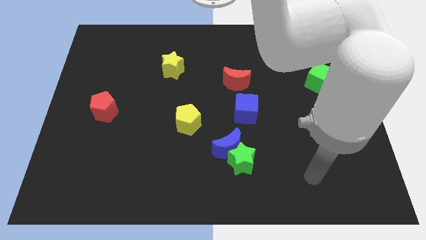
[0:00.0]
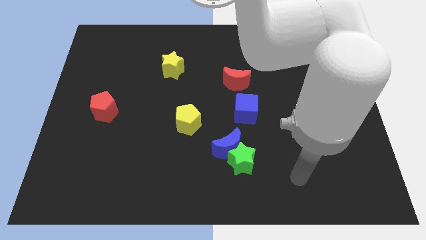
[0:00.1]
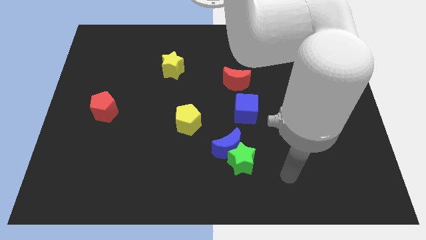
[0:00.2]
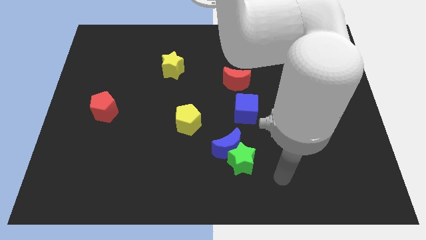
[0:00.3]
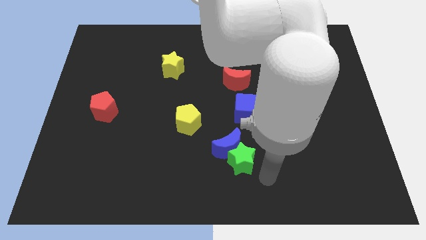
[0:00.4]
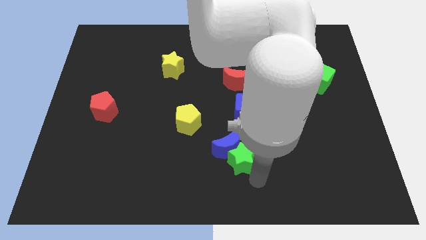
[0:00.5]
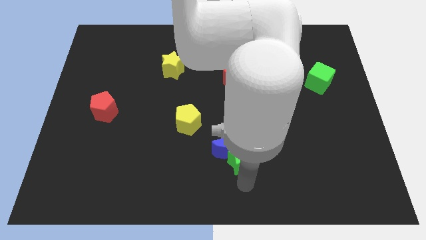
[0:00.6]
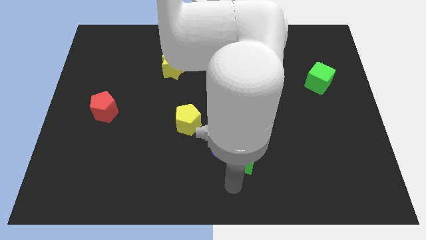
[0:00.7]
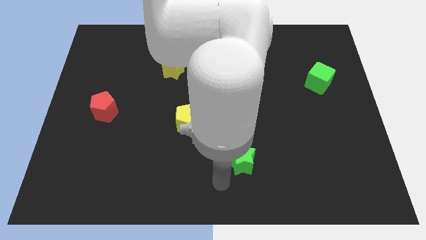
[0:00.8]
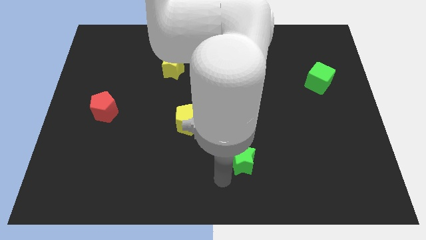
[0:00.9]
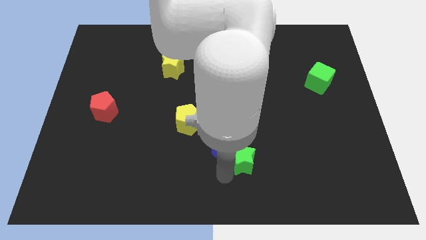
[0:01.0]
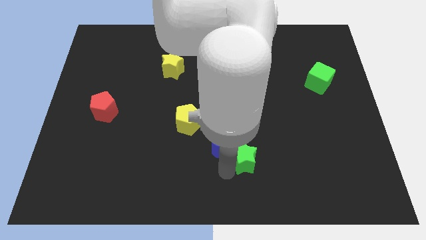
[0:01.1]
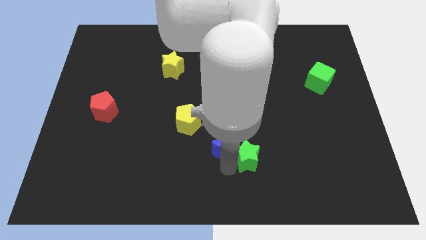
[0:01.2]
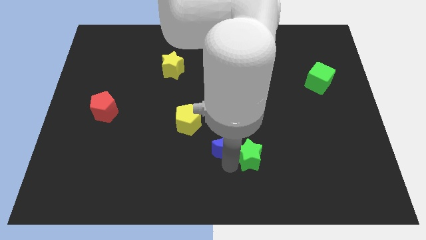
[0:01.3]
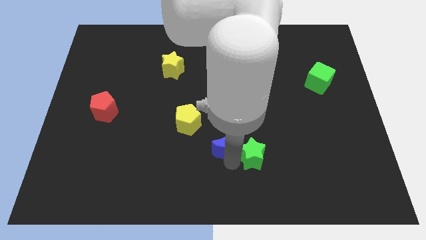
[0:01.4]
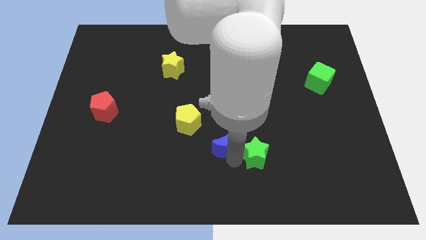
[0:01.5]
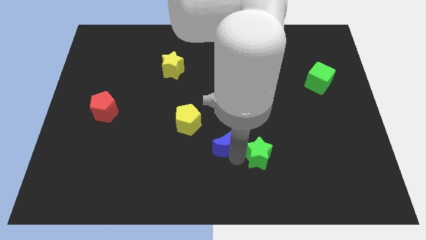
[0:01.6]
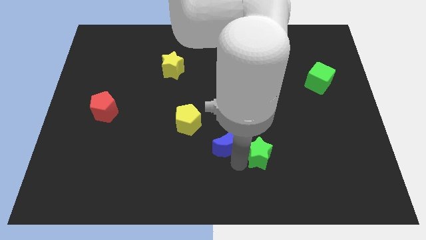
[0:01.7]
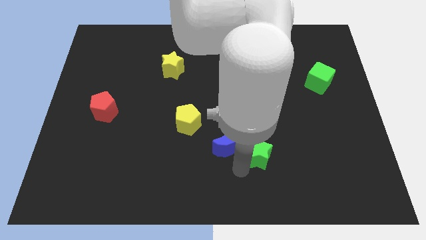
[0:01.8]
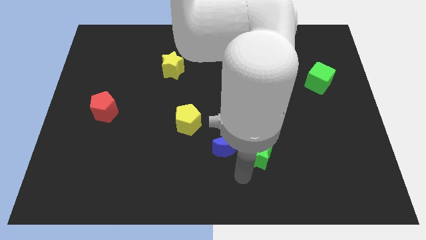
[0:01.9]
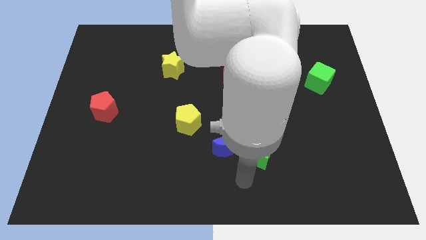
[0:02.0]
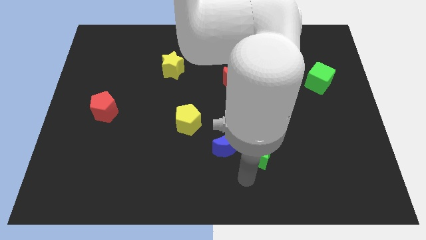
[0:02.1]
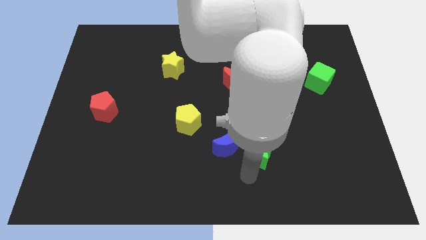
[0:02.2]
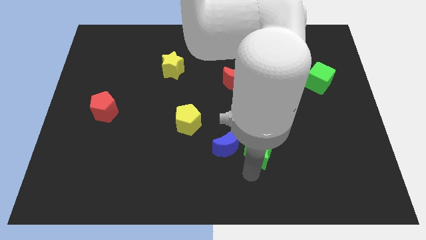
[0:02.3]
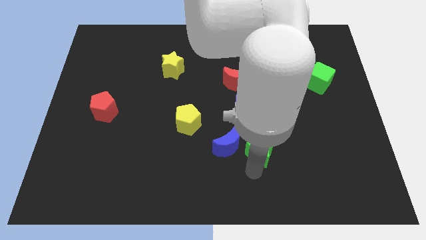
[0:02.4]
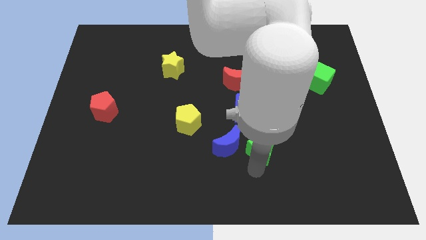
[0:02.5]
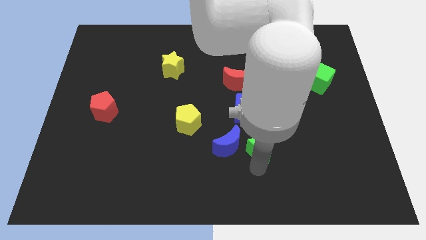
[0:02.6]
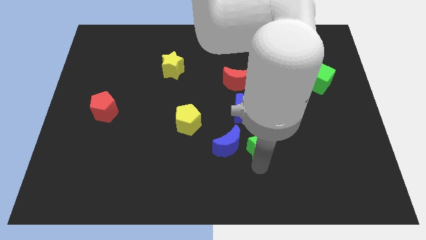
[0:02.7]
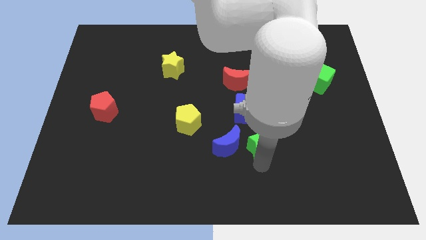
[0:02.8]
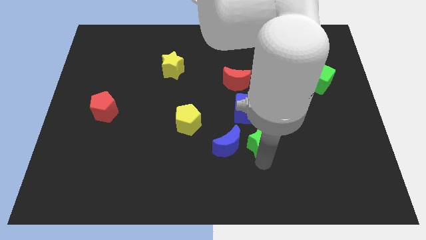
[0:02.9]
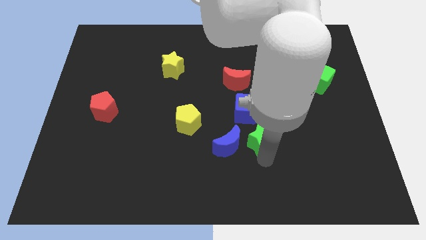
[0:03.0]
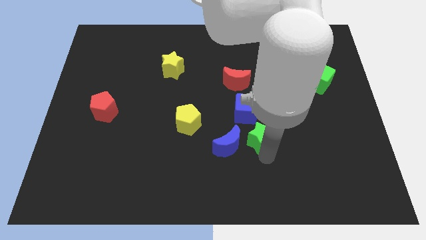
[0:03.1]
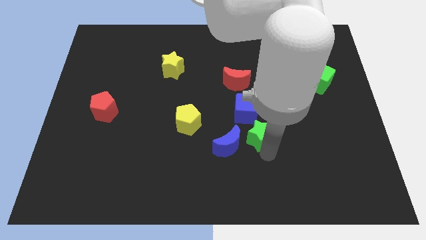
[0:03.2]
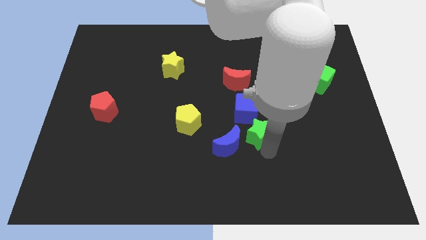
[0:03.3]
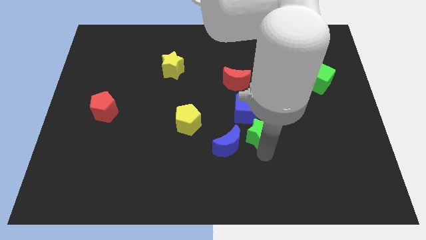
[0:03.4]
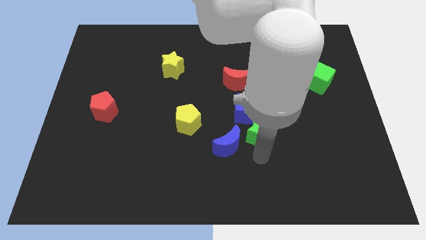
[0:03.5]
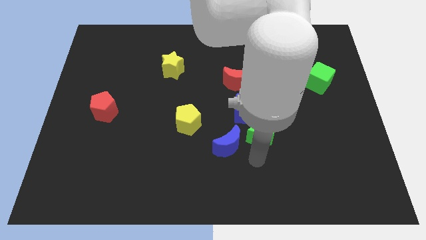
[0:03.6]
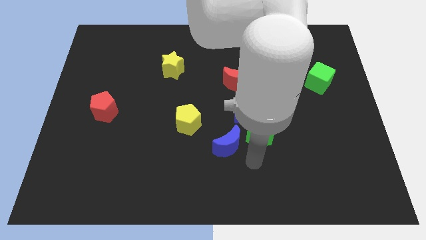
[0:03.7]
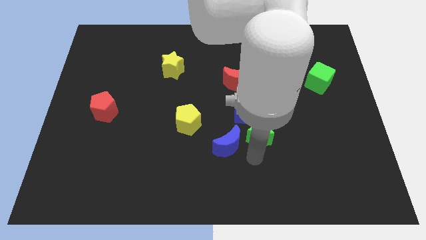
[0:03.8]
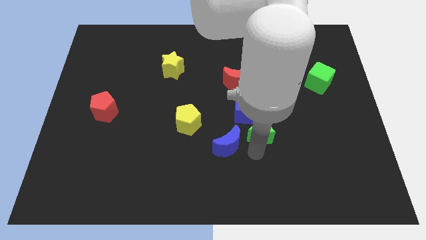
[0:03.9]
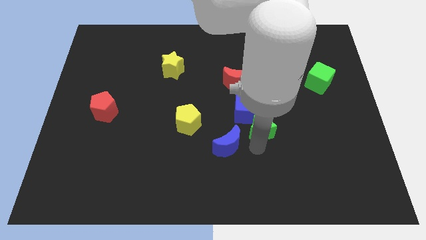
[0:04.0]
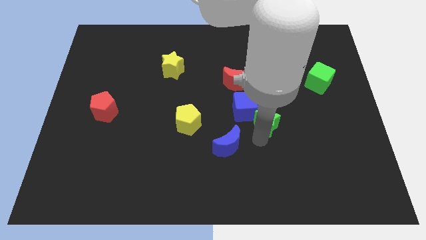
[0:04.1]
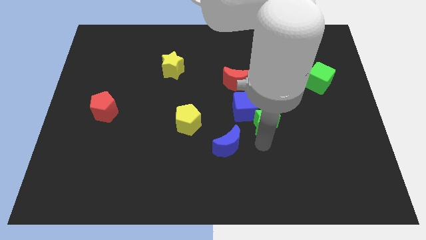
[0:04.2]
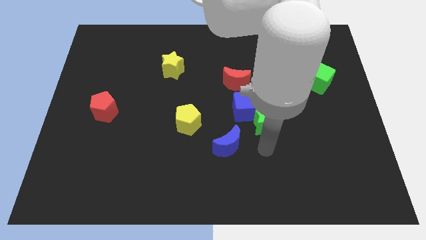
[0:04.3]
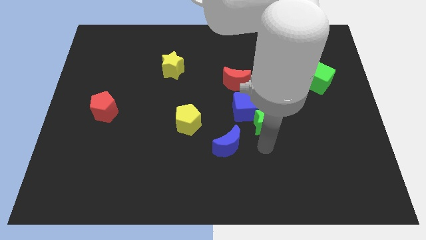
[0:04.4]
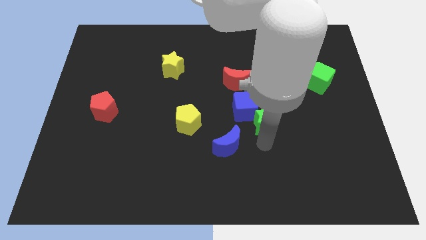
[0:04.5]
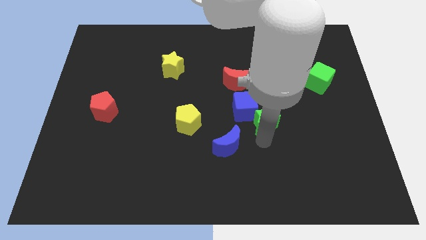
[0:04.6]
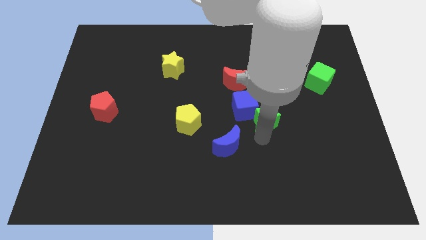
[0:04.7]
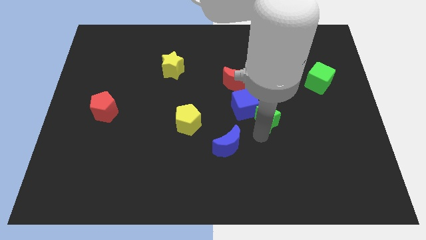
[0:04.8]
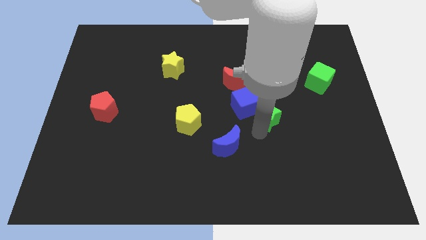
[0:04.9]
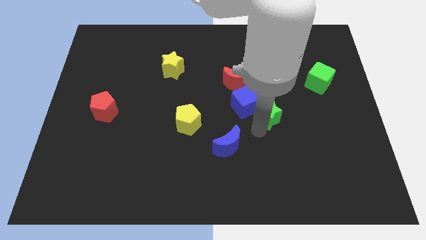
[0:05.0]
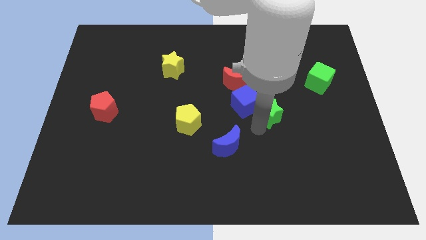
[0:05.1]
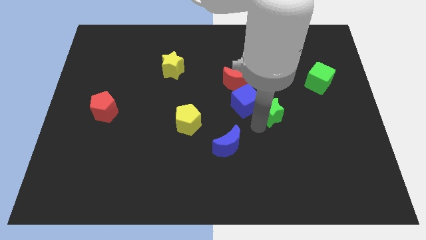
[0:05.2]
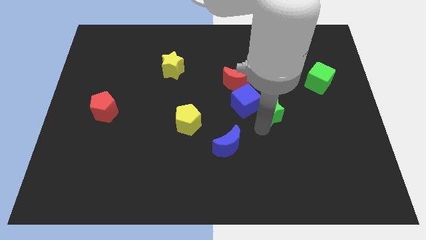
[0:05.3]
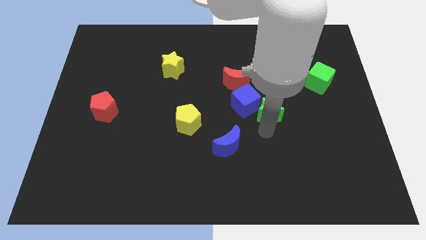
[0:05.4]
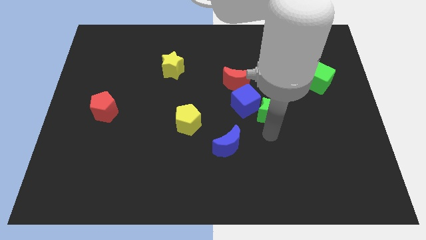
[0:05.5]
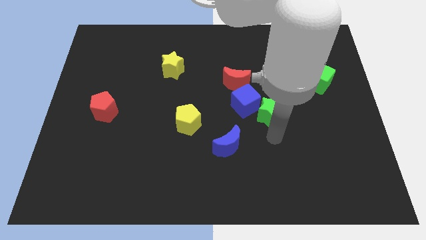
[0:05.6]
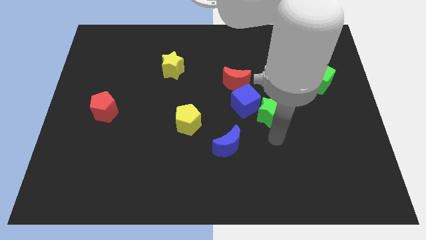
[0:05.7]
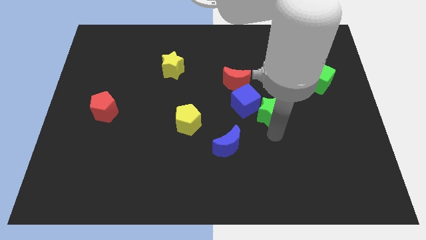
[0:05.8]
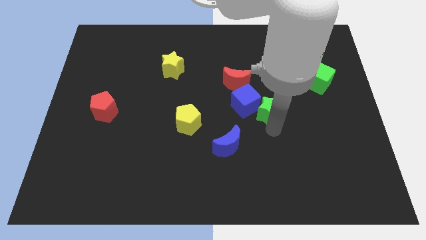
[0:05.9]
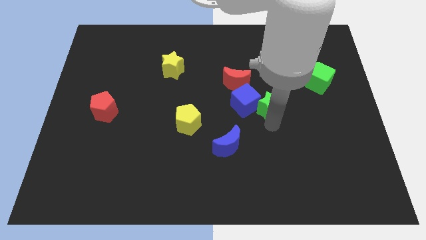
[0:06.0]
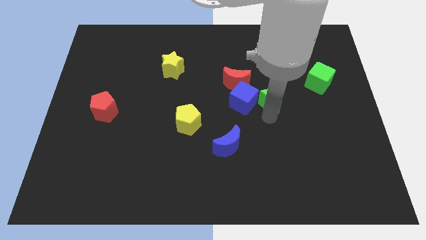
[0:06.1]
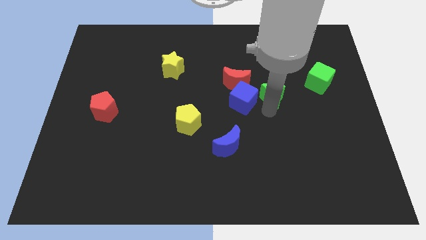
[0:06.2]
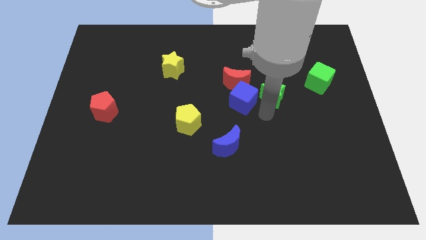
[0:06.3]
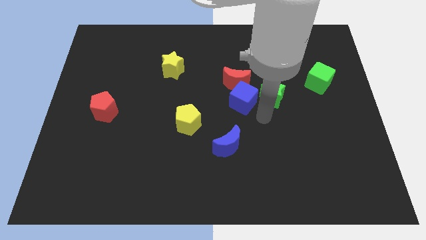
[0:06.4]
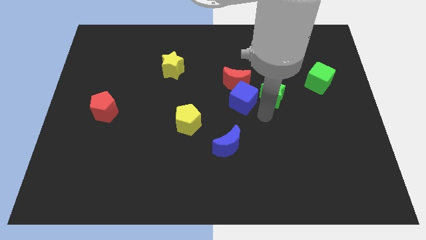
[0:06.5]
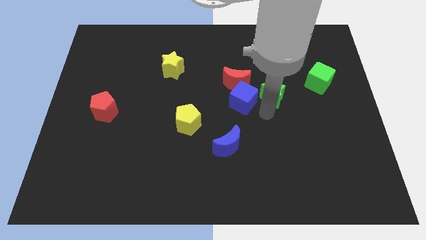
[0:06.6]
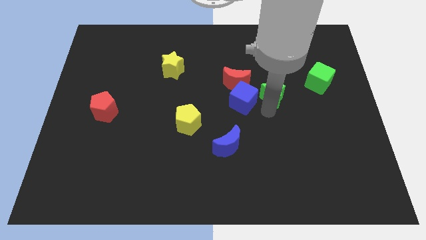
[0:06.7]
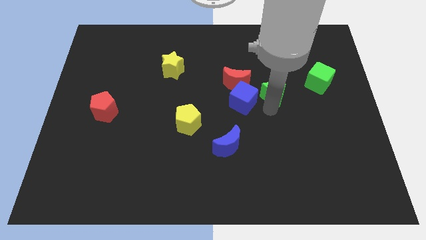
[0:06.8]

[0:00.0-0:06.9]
push the green star just left of the green cube

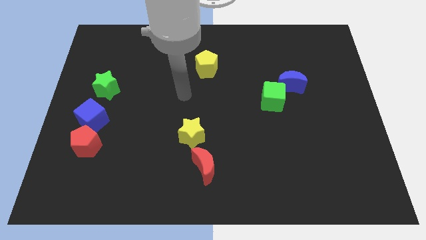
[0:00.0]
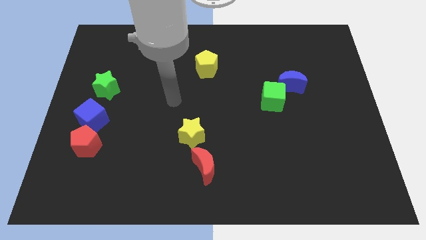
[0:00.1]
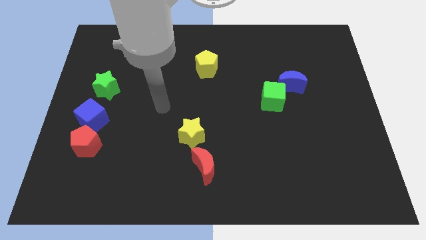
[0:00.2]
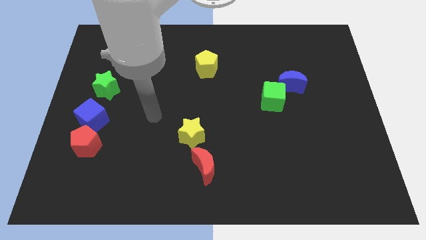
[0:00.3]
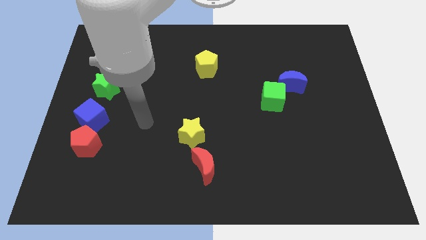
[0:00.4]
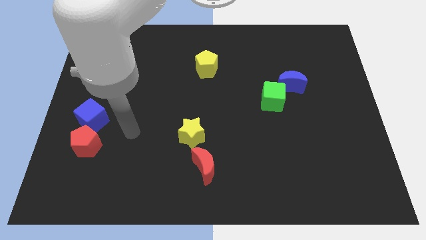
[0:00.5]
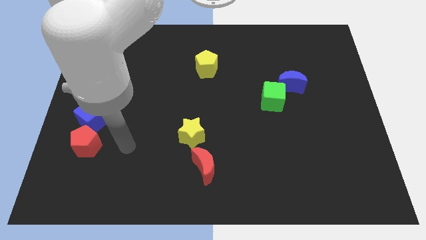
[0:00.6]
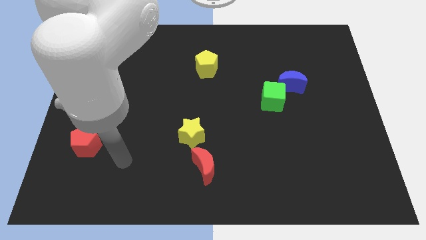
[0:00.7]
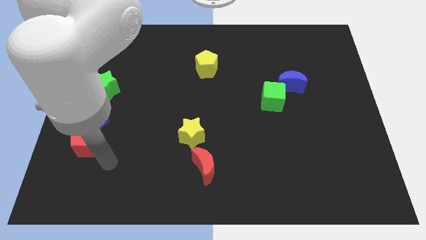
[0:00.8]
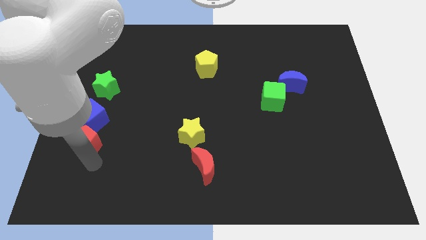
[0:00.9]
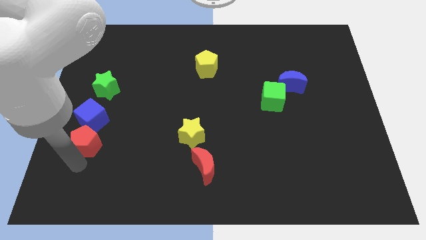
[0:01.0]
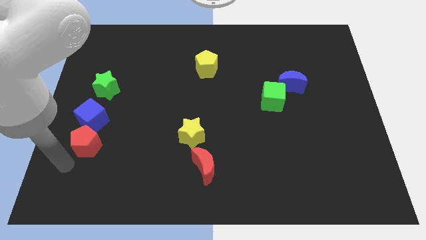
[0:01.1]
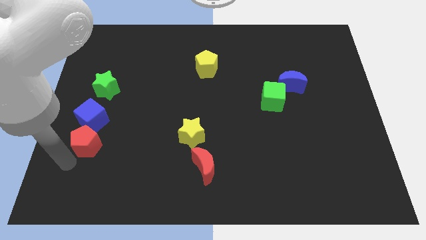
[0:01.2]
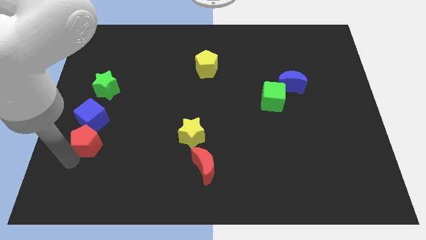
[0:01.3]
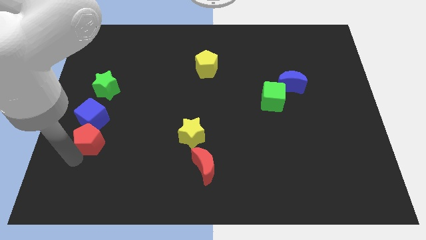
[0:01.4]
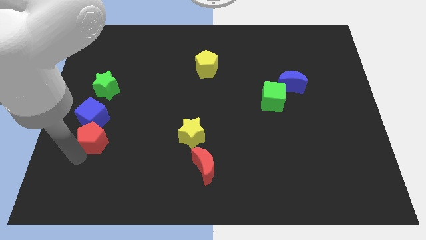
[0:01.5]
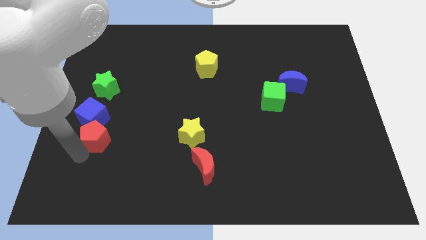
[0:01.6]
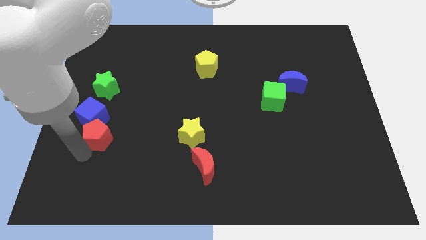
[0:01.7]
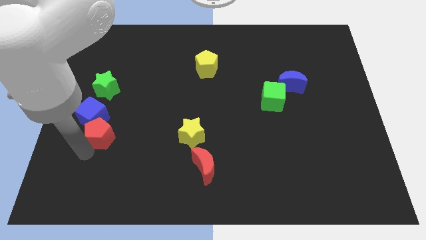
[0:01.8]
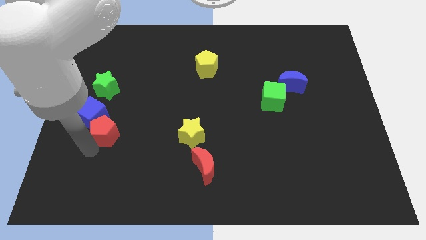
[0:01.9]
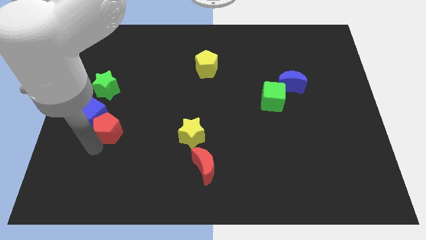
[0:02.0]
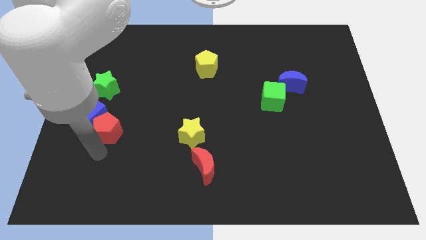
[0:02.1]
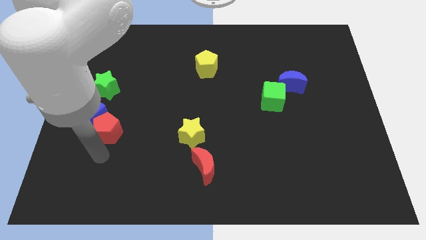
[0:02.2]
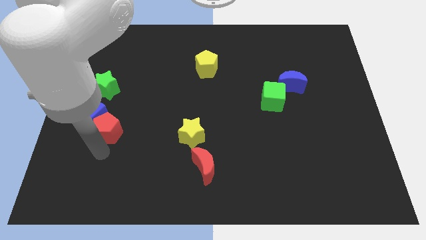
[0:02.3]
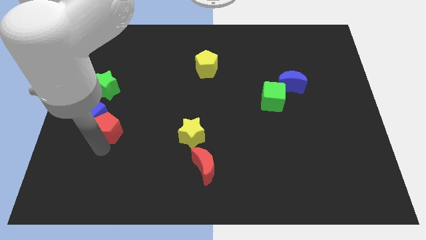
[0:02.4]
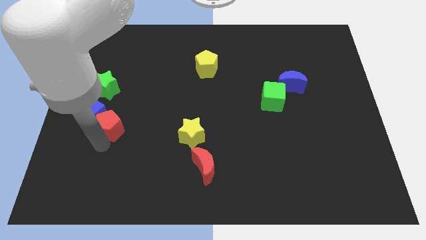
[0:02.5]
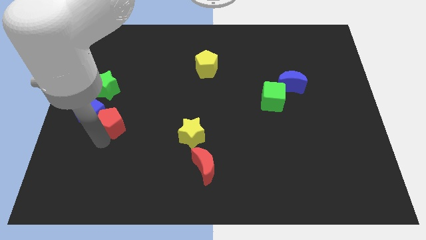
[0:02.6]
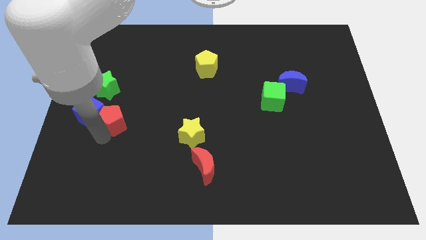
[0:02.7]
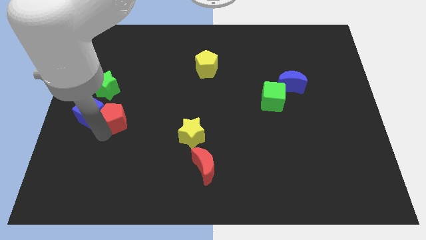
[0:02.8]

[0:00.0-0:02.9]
slide the red pentagon diagonally up and to the right of the blue cube
